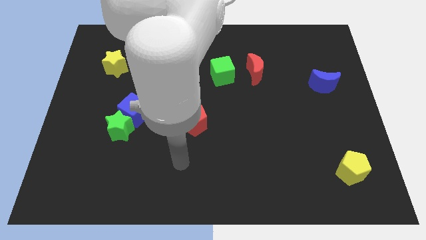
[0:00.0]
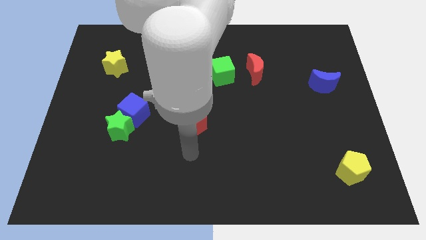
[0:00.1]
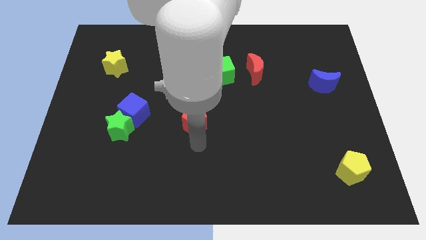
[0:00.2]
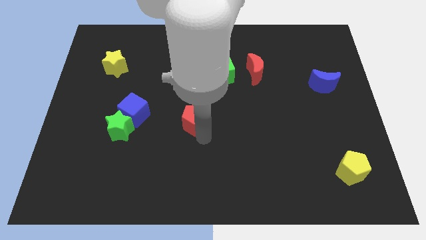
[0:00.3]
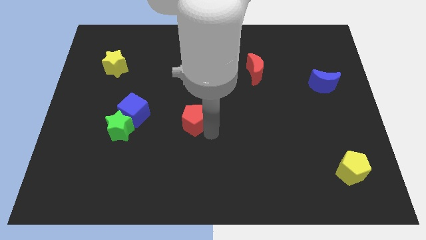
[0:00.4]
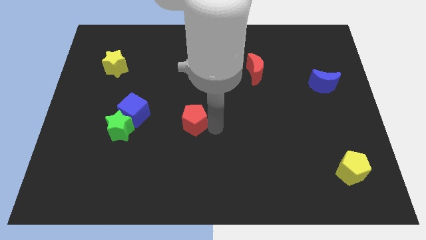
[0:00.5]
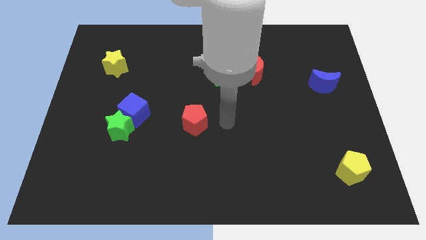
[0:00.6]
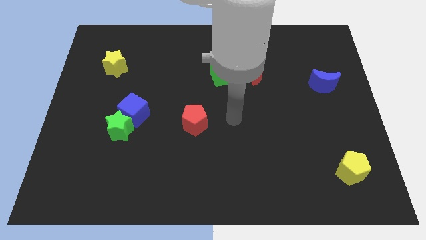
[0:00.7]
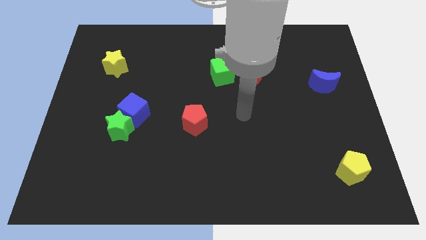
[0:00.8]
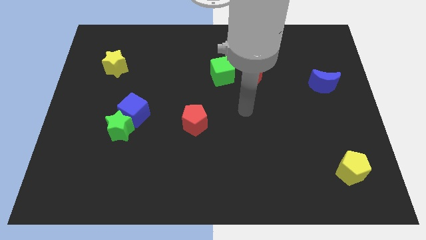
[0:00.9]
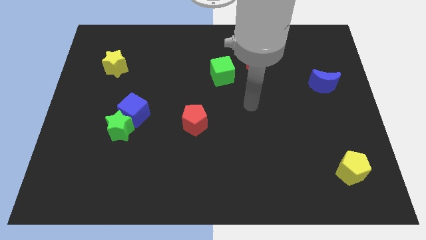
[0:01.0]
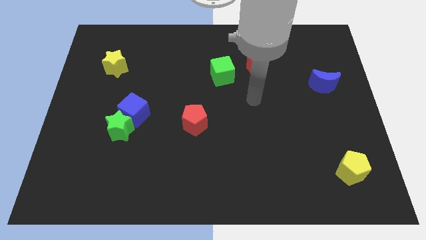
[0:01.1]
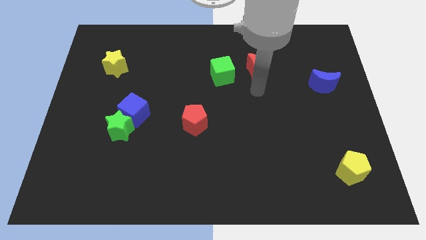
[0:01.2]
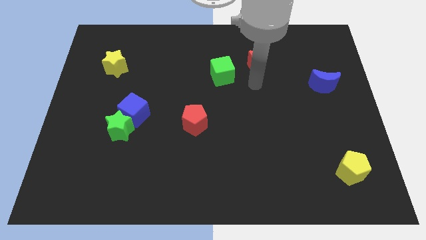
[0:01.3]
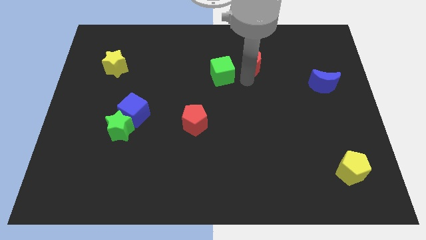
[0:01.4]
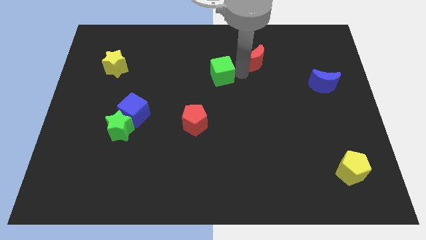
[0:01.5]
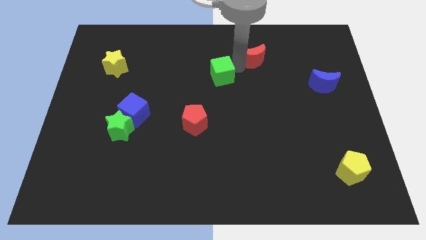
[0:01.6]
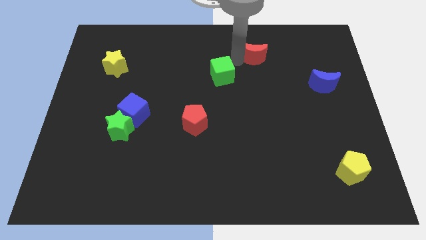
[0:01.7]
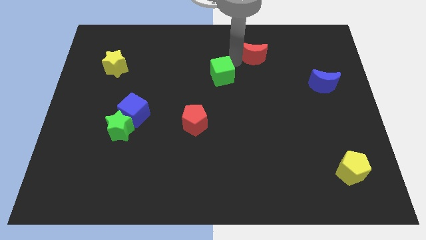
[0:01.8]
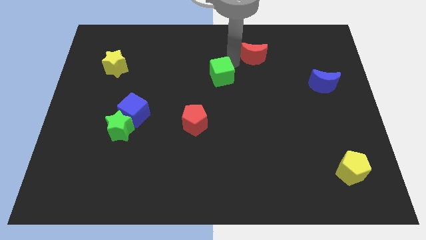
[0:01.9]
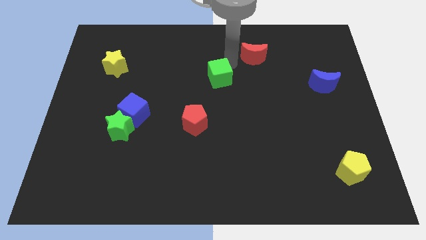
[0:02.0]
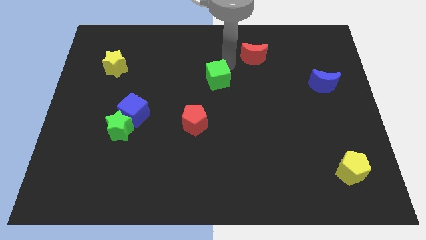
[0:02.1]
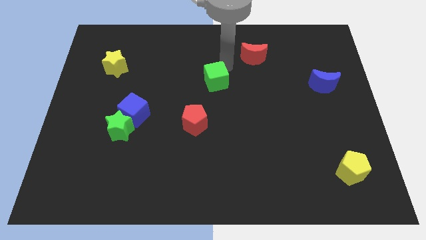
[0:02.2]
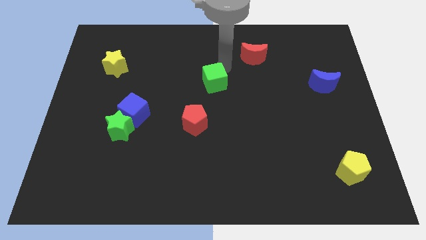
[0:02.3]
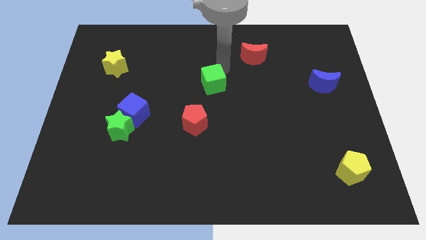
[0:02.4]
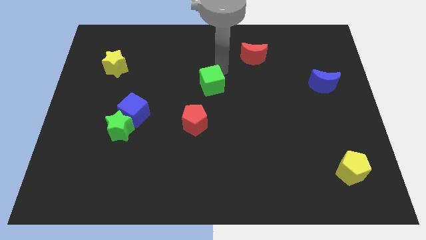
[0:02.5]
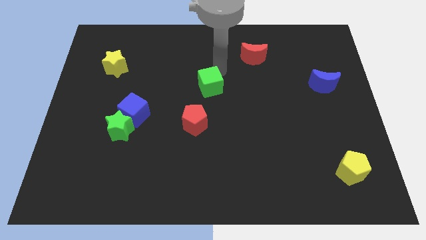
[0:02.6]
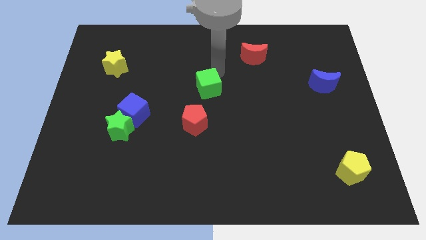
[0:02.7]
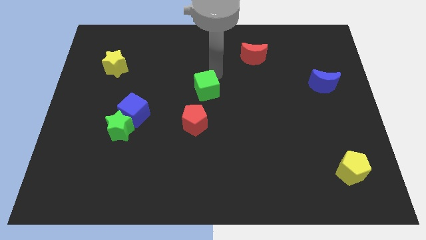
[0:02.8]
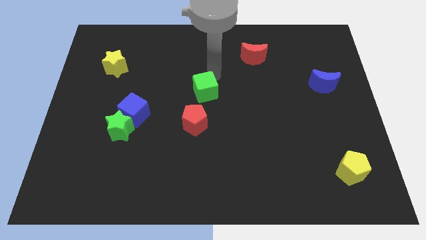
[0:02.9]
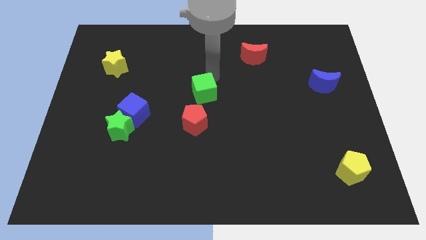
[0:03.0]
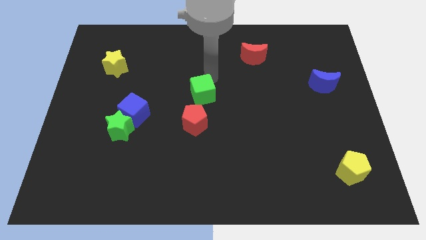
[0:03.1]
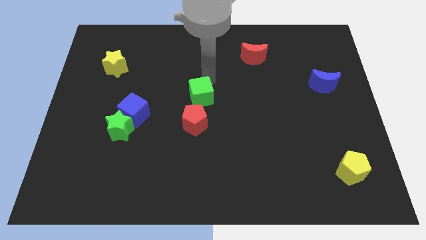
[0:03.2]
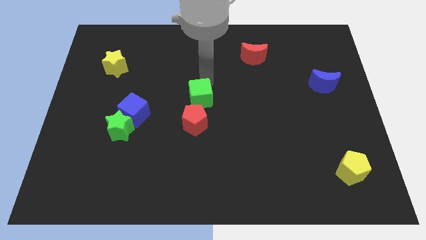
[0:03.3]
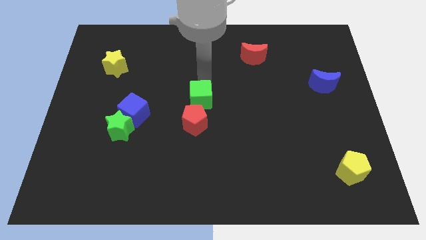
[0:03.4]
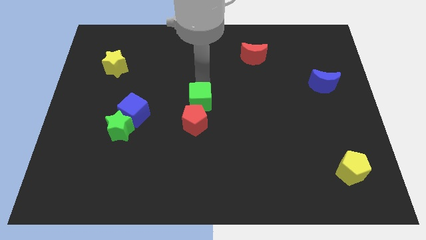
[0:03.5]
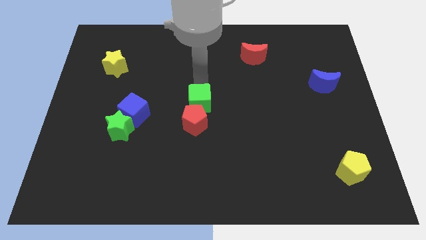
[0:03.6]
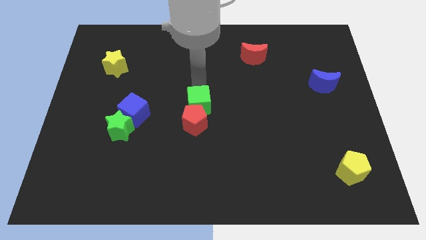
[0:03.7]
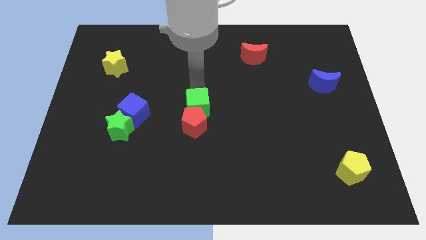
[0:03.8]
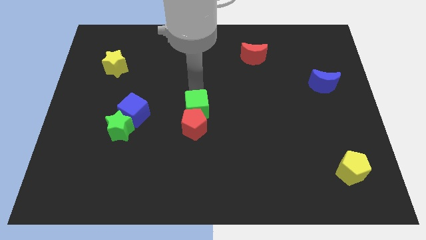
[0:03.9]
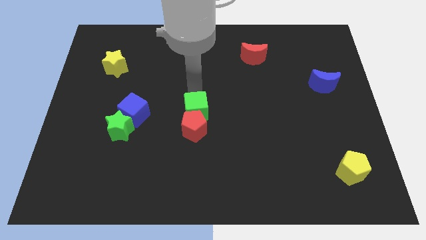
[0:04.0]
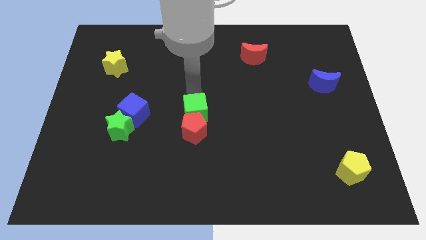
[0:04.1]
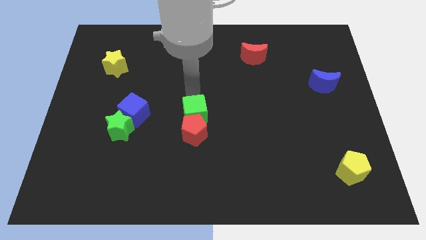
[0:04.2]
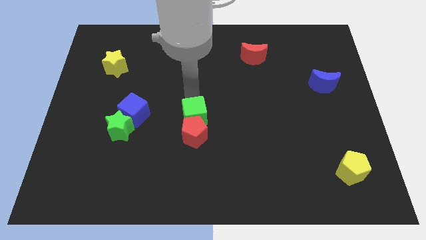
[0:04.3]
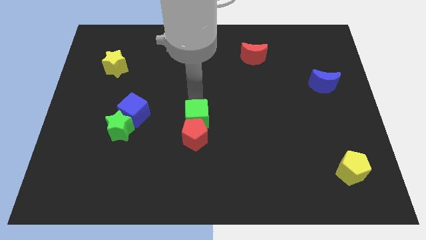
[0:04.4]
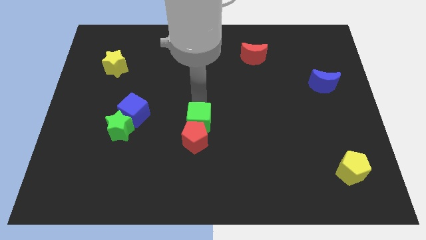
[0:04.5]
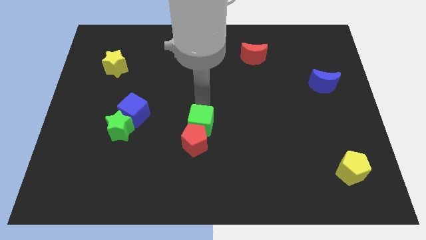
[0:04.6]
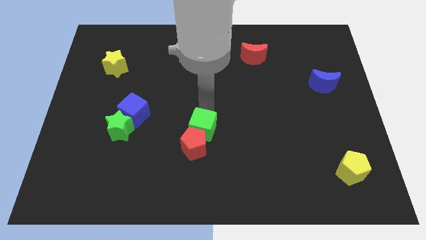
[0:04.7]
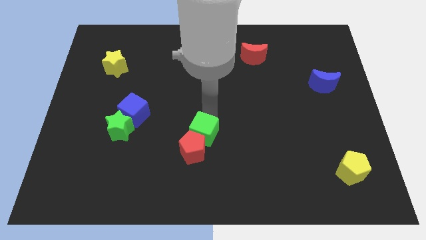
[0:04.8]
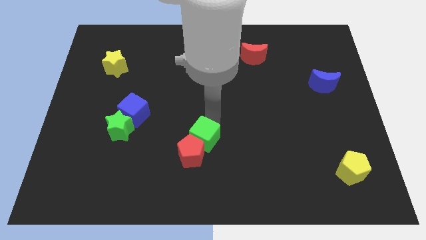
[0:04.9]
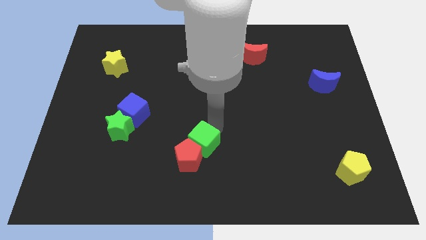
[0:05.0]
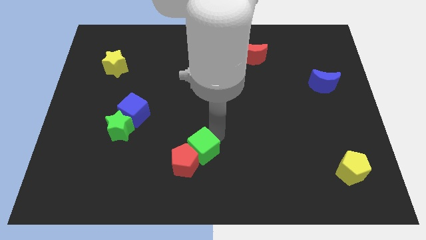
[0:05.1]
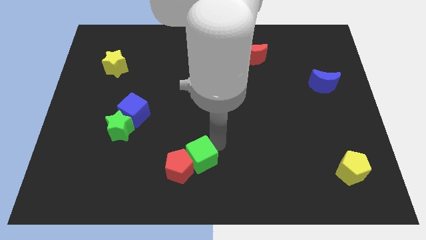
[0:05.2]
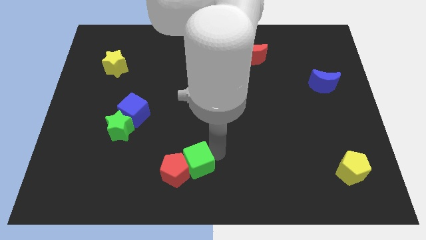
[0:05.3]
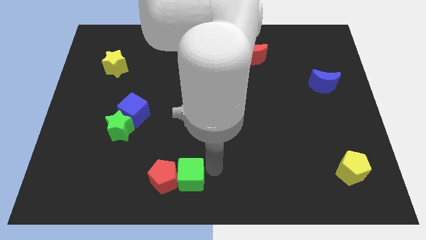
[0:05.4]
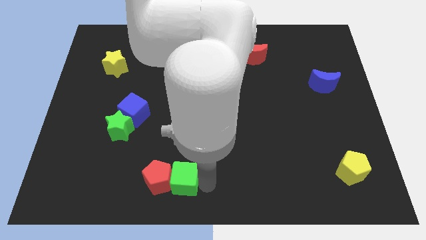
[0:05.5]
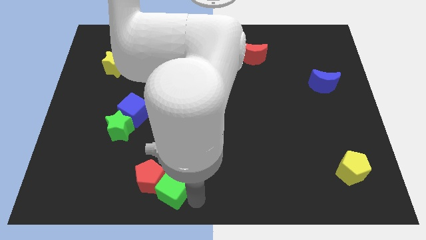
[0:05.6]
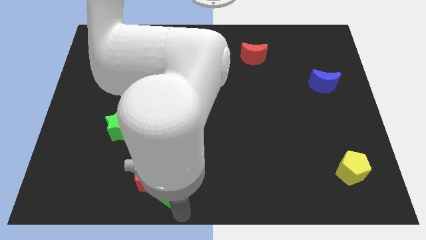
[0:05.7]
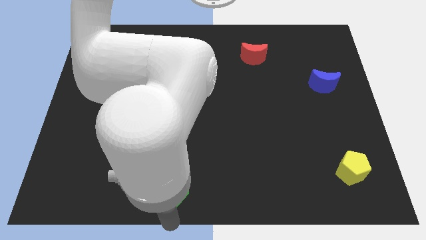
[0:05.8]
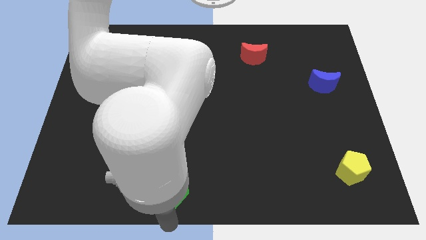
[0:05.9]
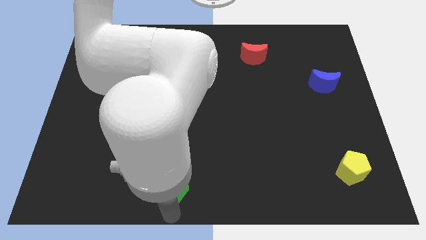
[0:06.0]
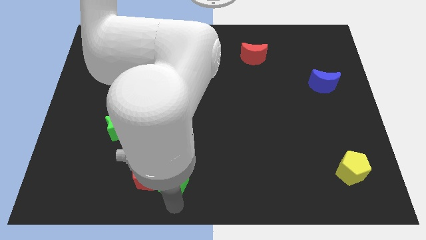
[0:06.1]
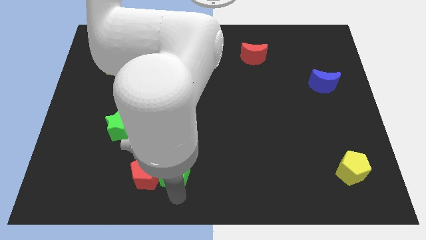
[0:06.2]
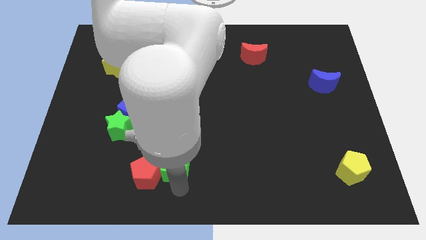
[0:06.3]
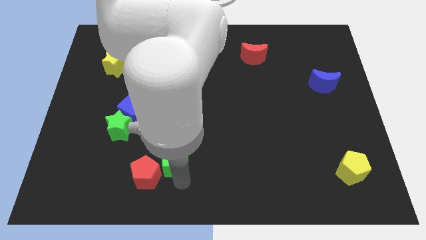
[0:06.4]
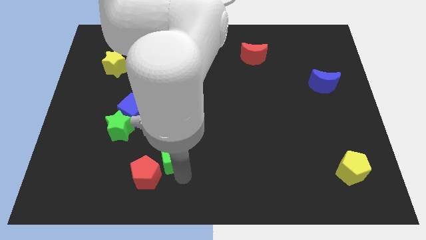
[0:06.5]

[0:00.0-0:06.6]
push the green cube downwards and to the left

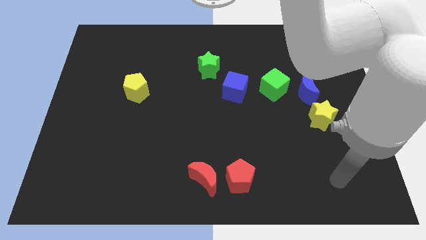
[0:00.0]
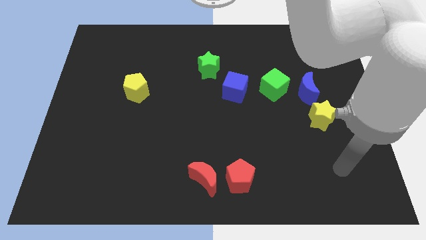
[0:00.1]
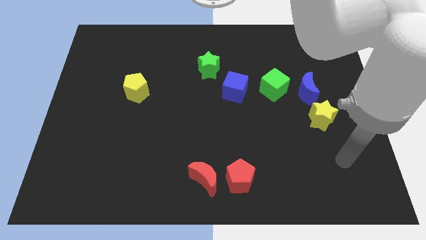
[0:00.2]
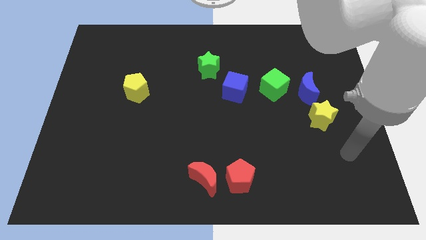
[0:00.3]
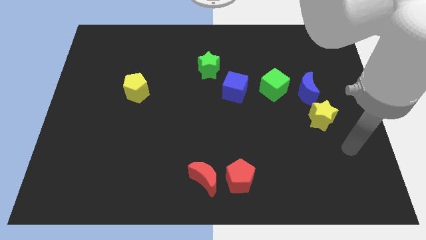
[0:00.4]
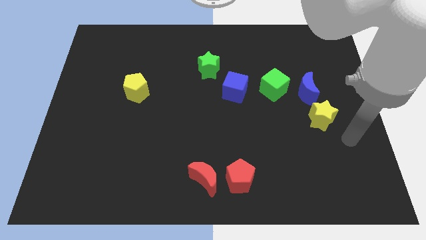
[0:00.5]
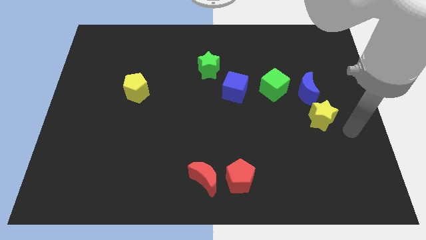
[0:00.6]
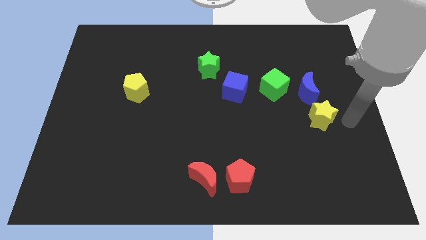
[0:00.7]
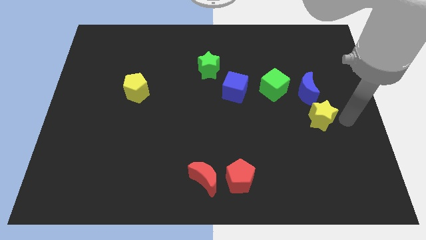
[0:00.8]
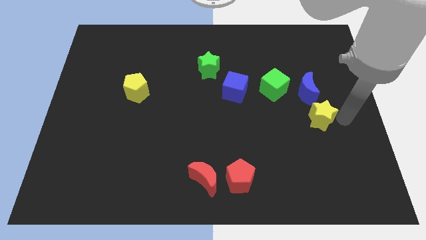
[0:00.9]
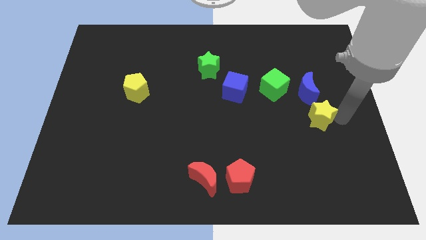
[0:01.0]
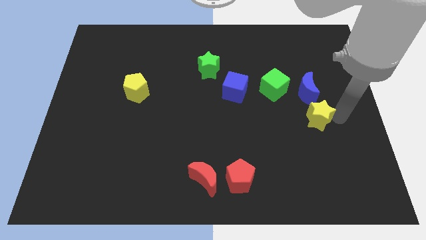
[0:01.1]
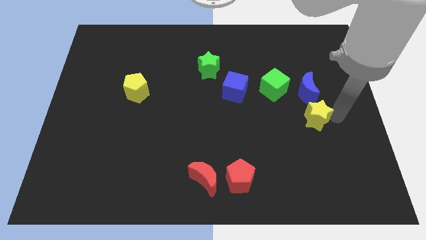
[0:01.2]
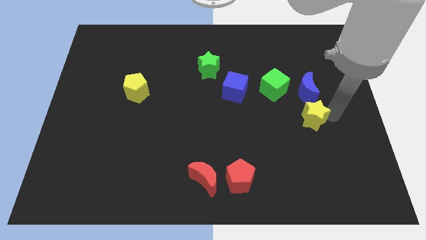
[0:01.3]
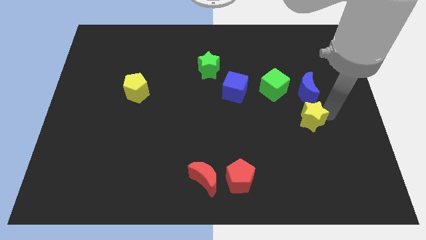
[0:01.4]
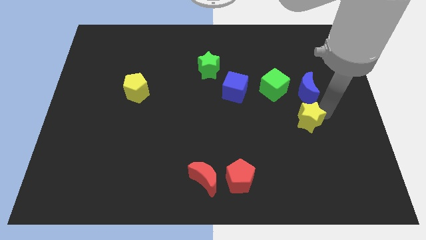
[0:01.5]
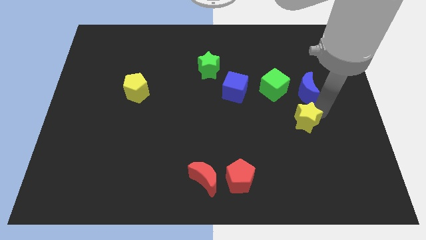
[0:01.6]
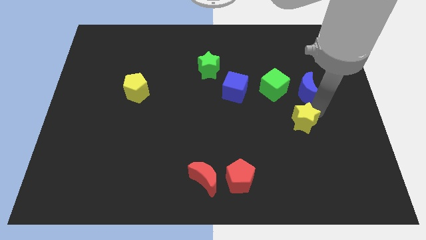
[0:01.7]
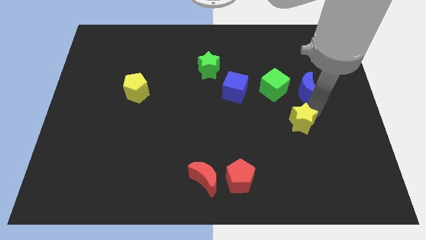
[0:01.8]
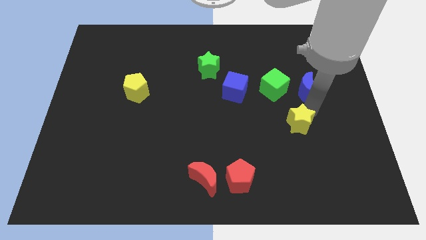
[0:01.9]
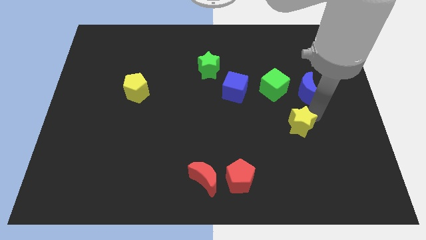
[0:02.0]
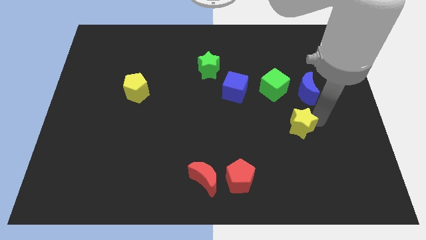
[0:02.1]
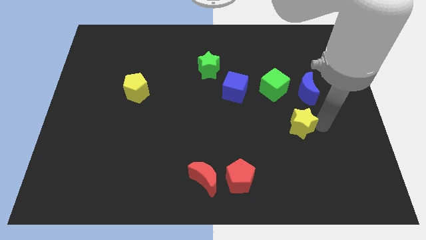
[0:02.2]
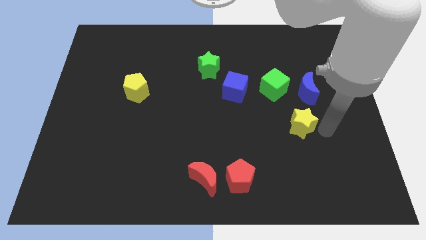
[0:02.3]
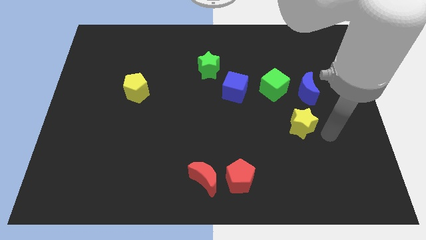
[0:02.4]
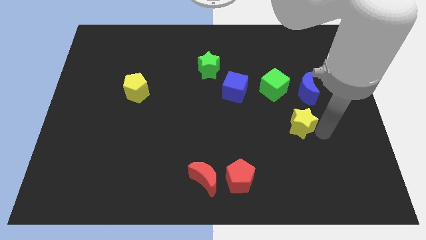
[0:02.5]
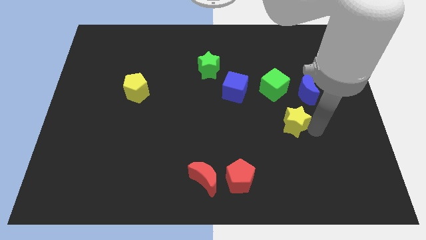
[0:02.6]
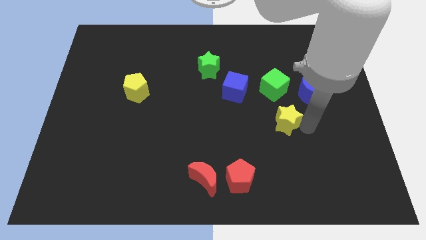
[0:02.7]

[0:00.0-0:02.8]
move the yellow star to the left a bit
